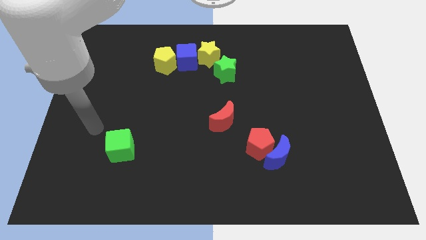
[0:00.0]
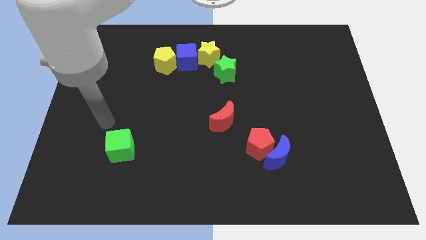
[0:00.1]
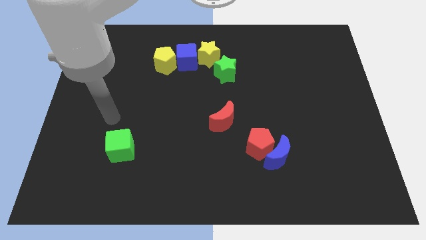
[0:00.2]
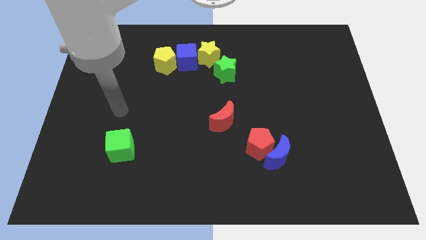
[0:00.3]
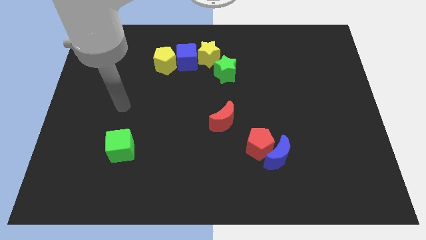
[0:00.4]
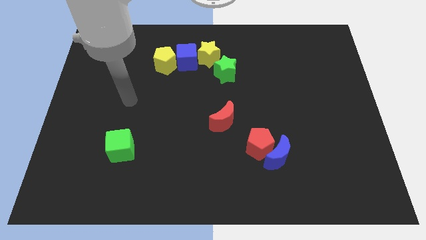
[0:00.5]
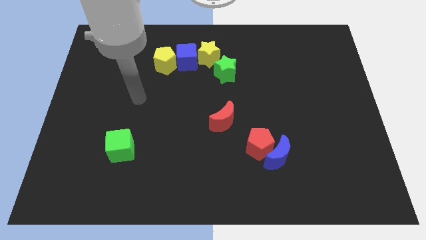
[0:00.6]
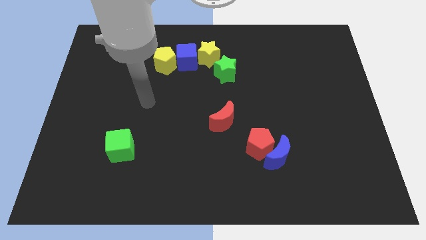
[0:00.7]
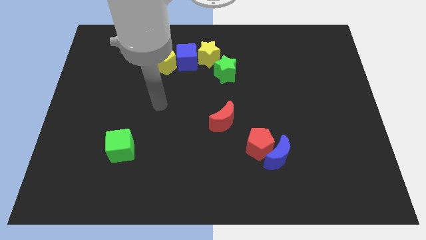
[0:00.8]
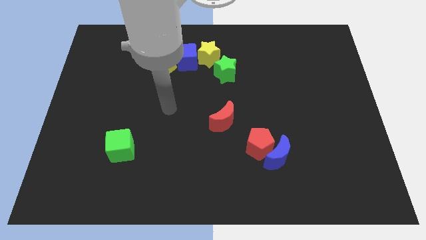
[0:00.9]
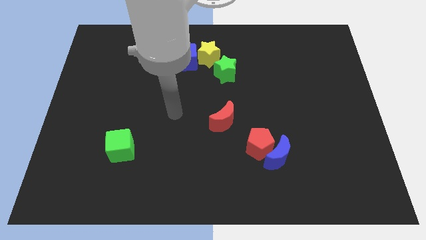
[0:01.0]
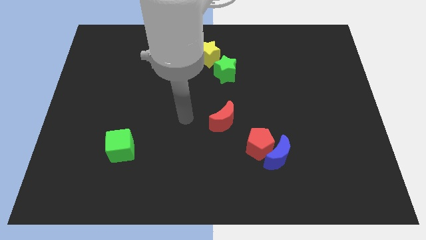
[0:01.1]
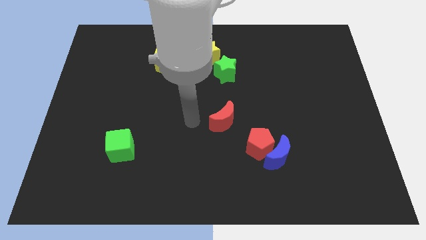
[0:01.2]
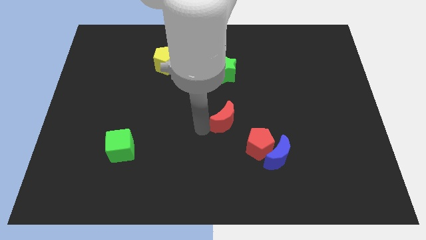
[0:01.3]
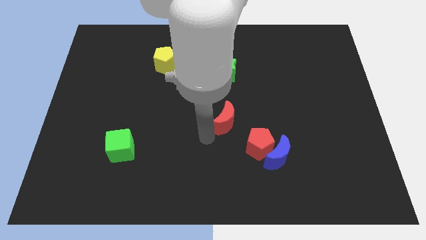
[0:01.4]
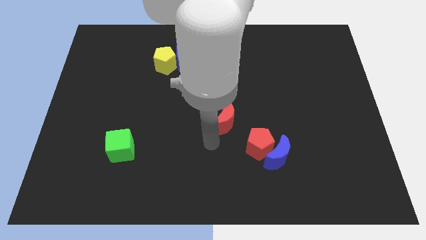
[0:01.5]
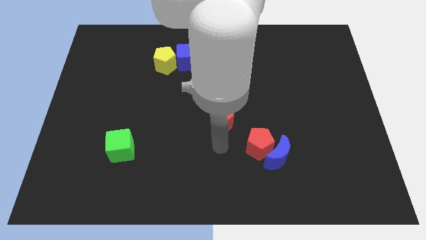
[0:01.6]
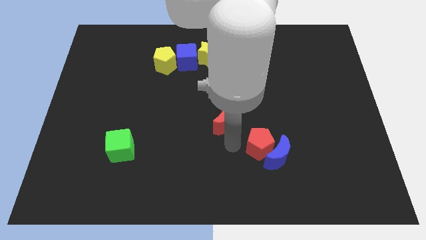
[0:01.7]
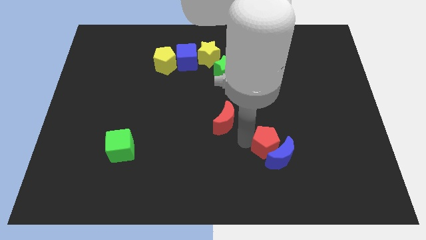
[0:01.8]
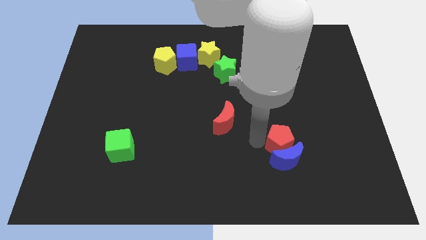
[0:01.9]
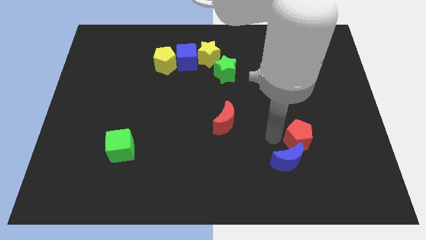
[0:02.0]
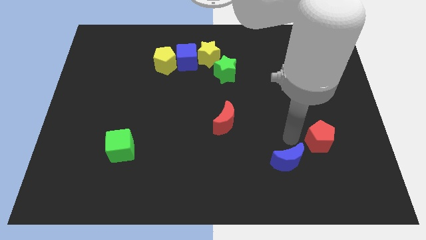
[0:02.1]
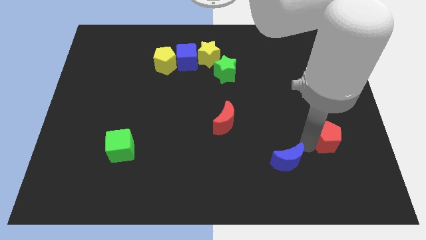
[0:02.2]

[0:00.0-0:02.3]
separate the blue moon from the red pentagon

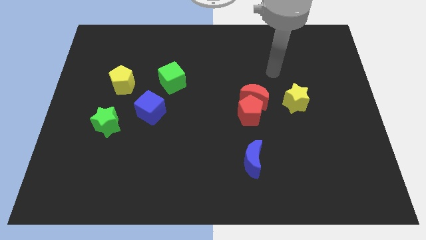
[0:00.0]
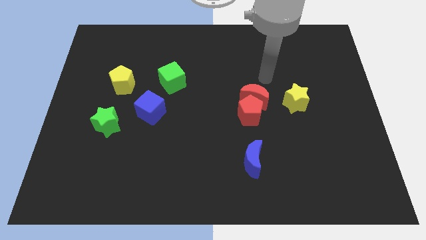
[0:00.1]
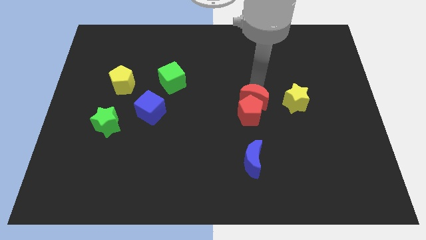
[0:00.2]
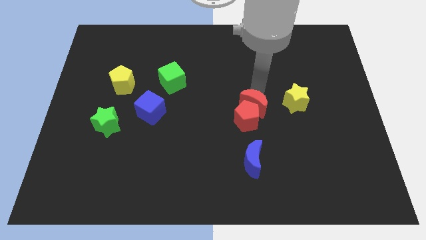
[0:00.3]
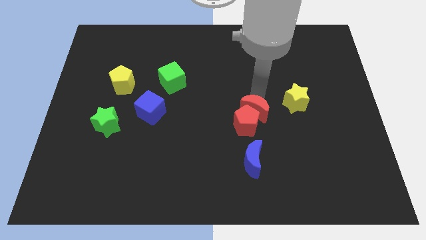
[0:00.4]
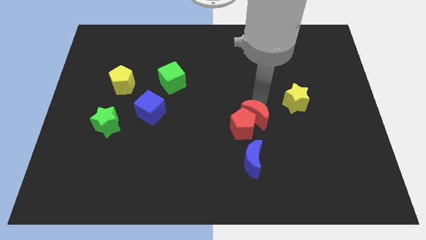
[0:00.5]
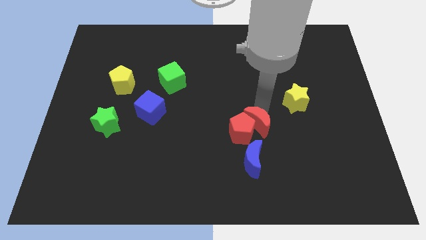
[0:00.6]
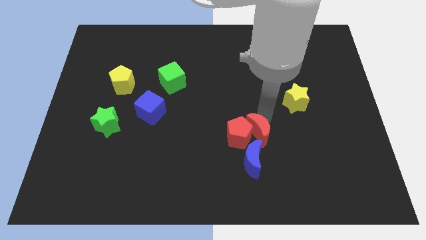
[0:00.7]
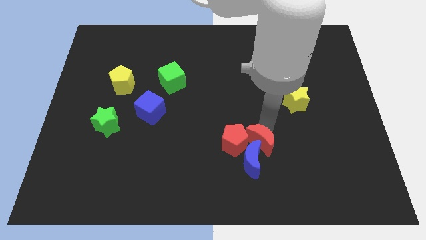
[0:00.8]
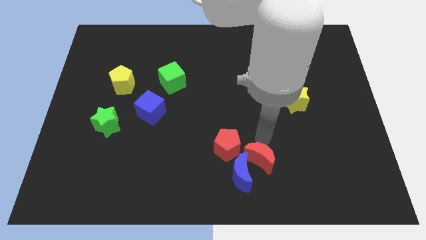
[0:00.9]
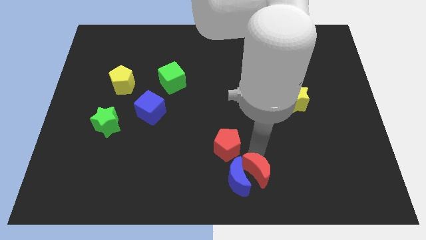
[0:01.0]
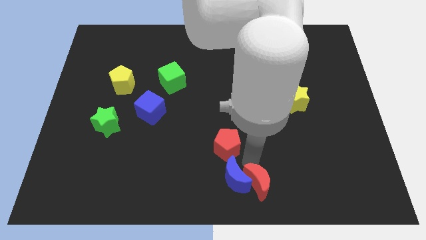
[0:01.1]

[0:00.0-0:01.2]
move the red pentagon away from the red moon

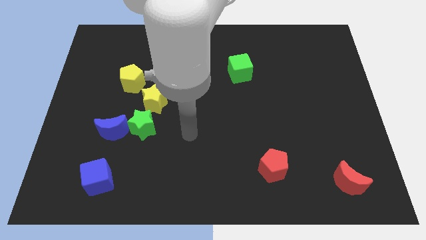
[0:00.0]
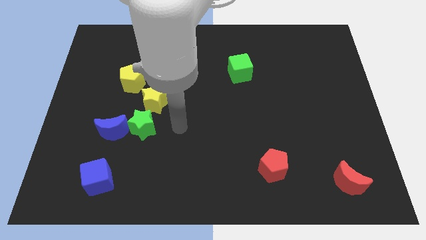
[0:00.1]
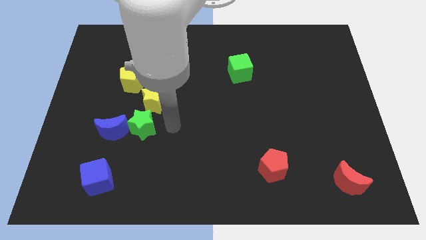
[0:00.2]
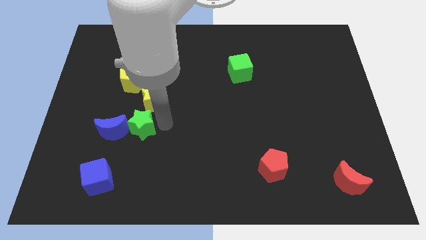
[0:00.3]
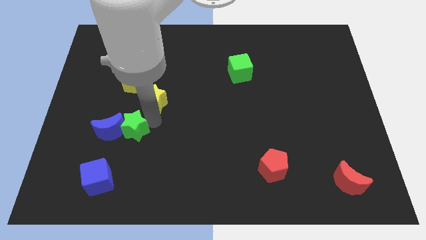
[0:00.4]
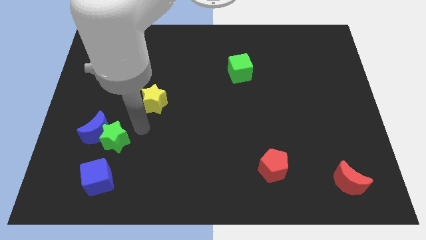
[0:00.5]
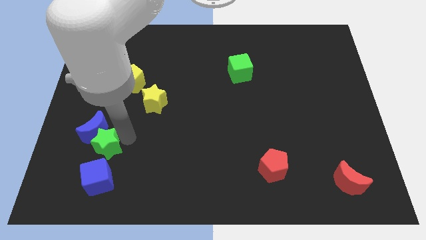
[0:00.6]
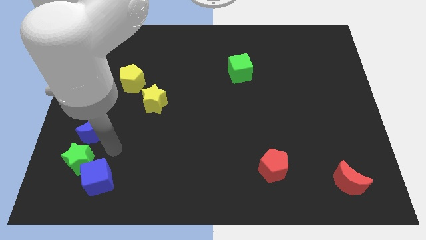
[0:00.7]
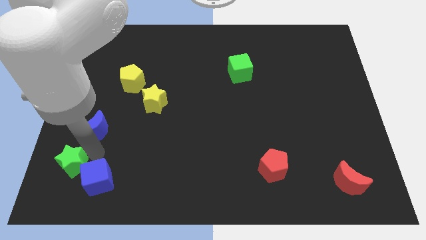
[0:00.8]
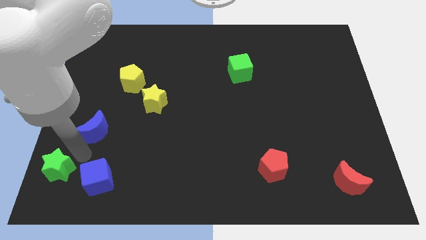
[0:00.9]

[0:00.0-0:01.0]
move the blue moon away from the green star

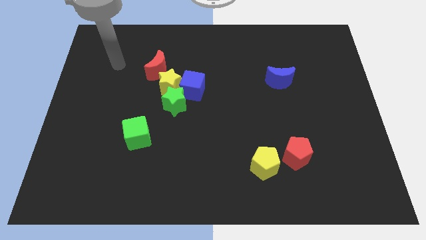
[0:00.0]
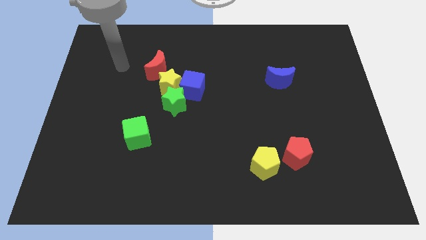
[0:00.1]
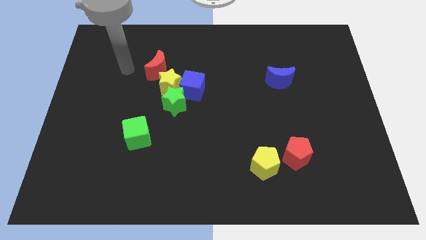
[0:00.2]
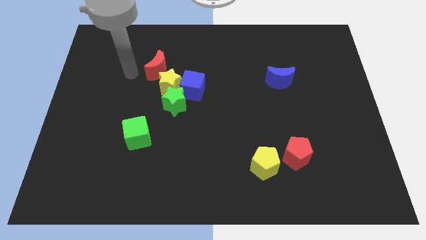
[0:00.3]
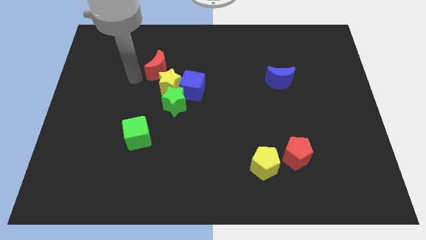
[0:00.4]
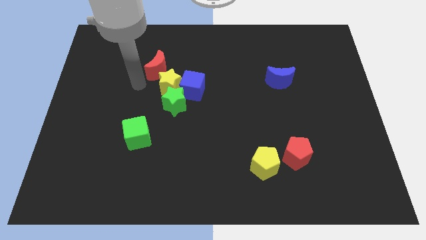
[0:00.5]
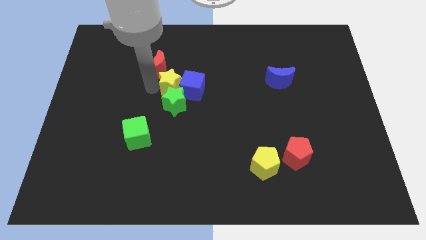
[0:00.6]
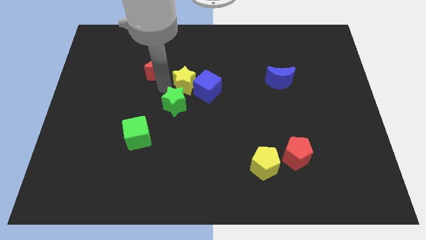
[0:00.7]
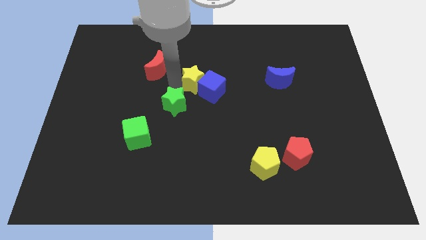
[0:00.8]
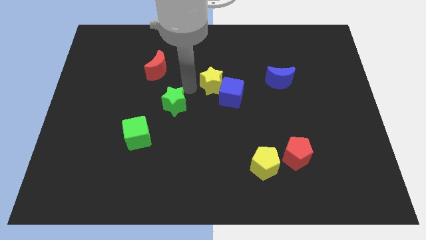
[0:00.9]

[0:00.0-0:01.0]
separate the green star from the yellow star and blue cube

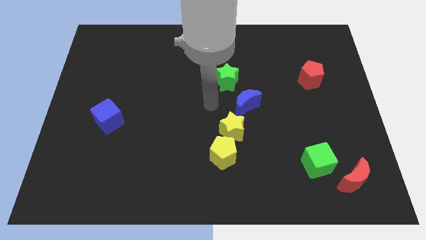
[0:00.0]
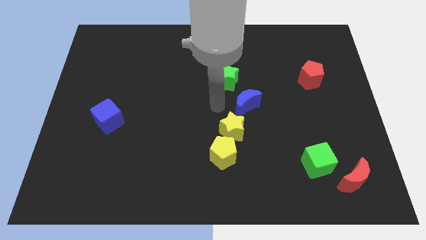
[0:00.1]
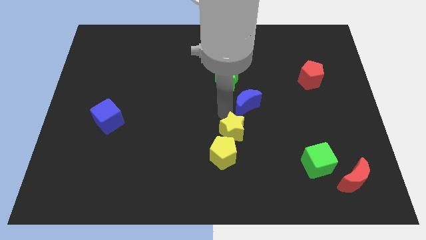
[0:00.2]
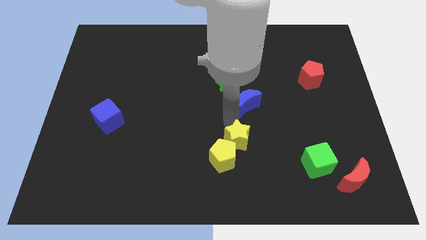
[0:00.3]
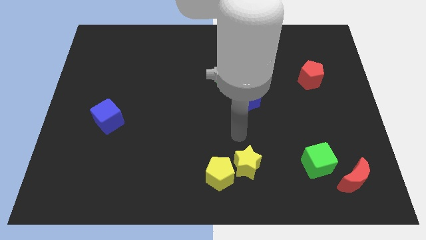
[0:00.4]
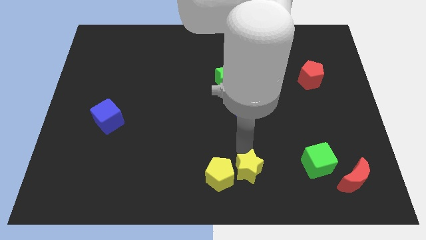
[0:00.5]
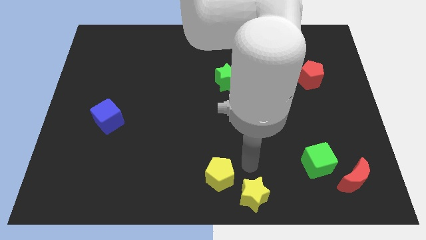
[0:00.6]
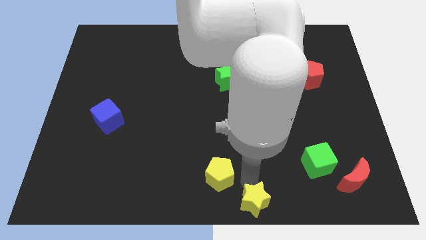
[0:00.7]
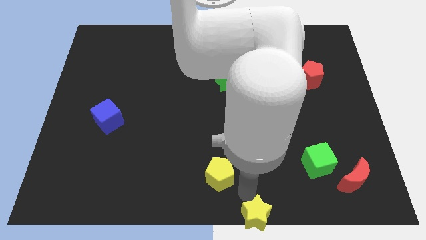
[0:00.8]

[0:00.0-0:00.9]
move the yellow pentagon away from the yellow star

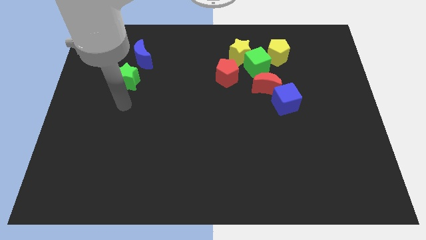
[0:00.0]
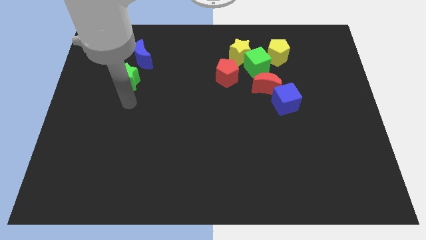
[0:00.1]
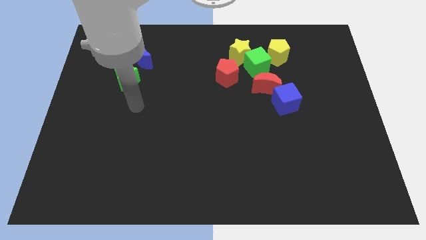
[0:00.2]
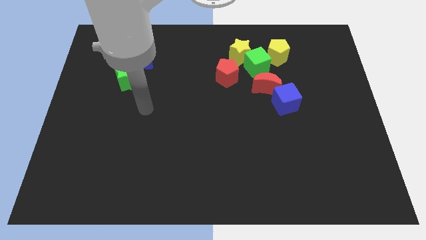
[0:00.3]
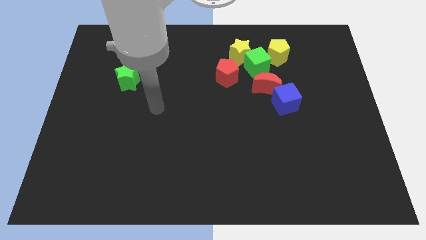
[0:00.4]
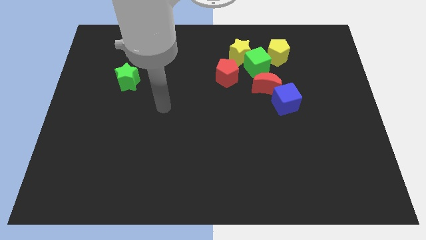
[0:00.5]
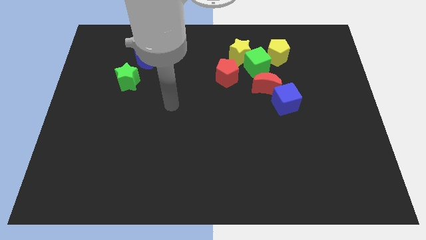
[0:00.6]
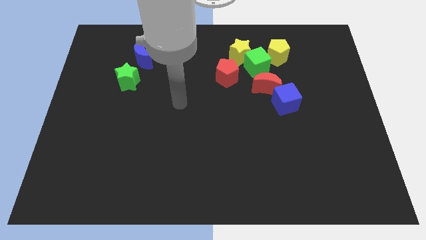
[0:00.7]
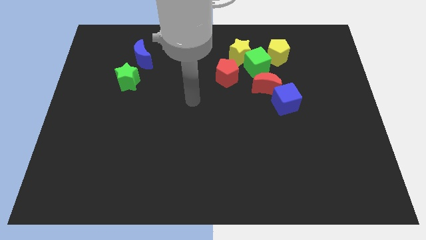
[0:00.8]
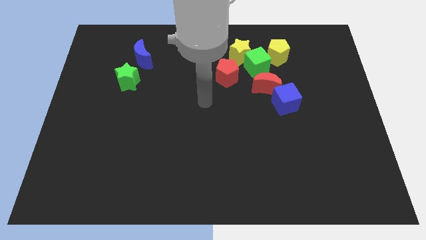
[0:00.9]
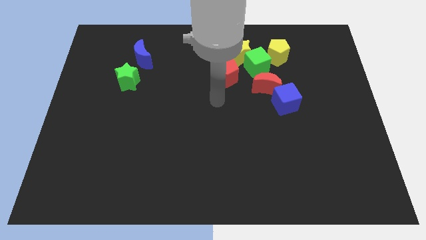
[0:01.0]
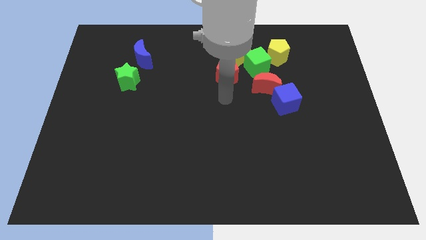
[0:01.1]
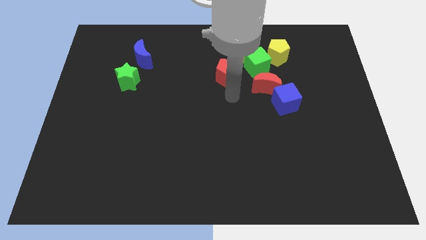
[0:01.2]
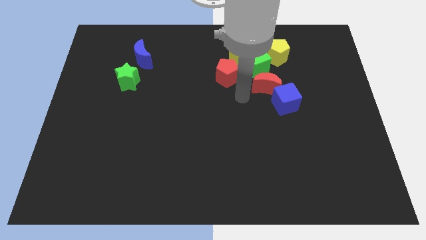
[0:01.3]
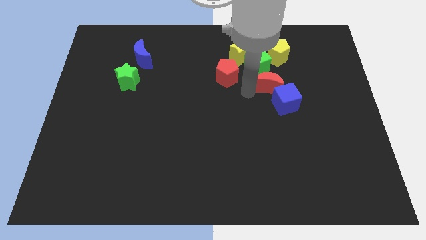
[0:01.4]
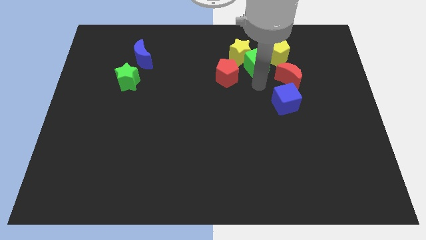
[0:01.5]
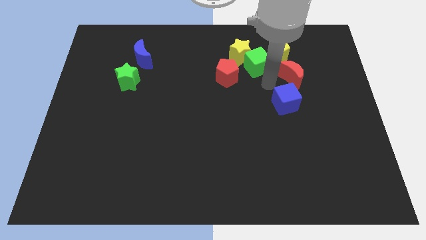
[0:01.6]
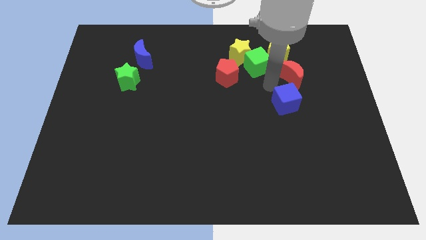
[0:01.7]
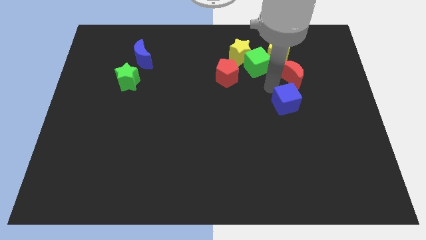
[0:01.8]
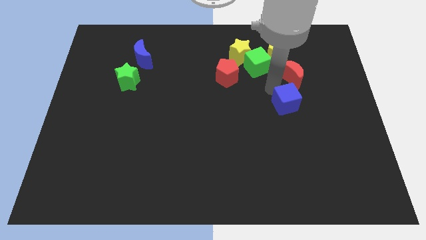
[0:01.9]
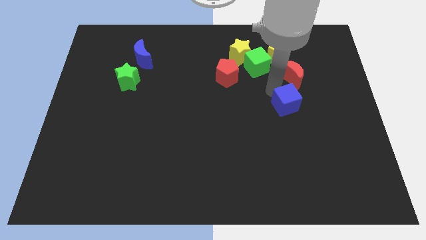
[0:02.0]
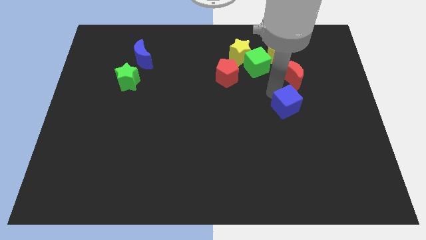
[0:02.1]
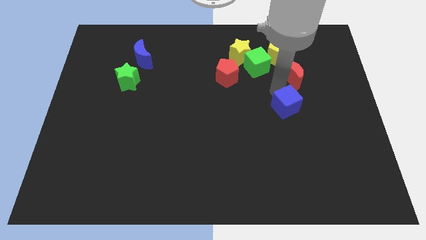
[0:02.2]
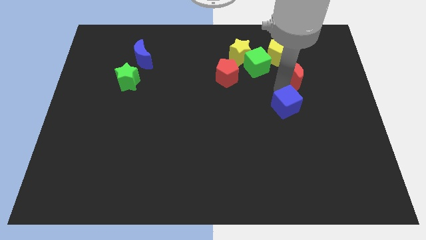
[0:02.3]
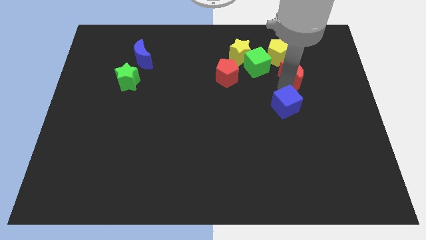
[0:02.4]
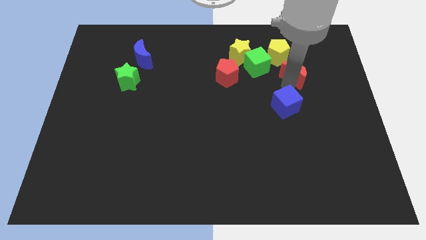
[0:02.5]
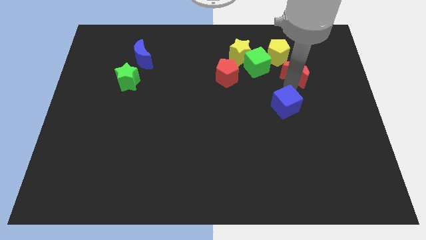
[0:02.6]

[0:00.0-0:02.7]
move the blue cube away from the red moon

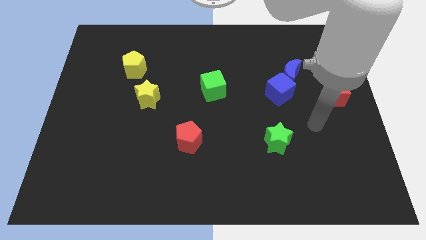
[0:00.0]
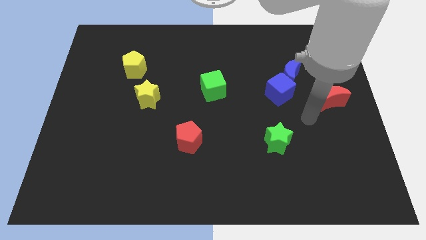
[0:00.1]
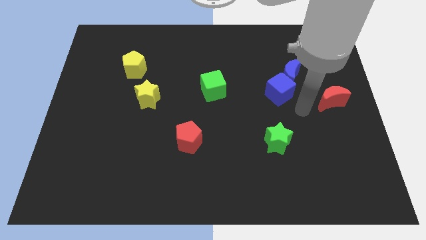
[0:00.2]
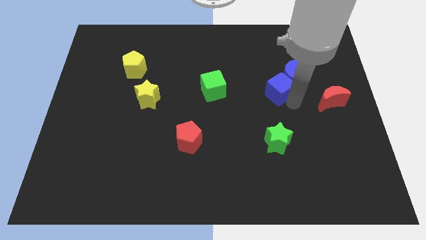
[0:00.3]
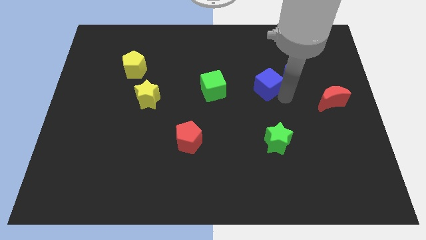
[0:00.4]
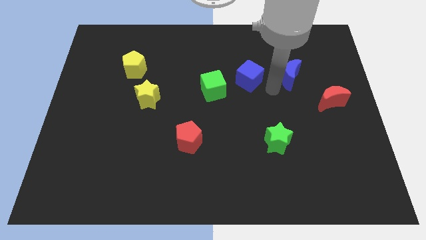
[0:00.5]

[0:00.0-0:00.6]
separate the blue moon from the blue cube
